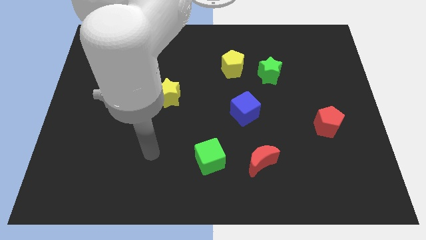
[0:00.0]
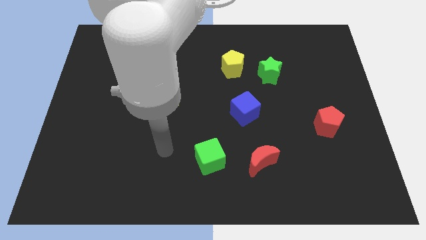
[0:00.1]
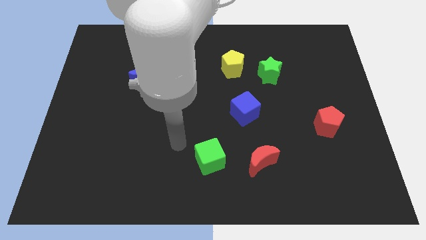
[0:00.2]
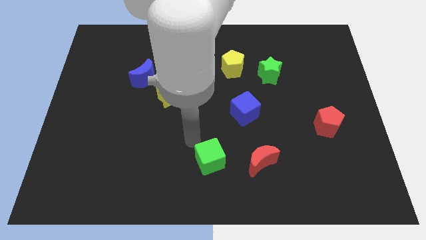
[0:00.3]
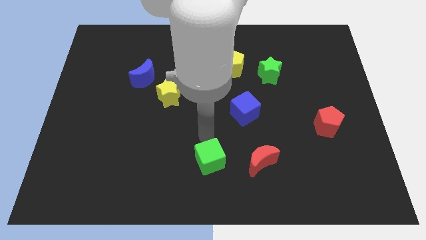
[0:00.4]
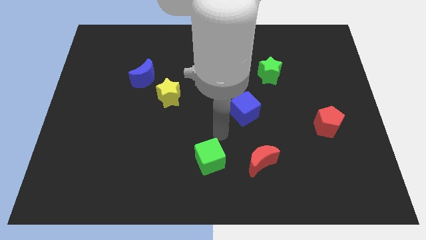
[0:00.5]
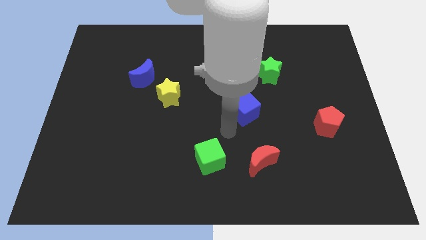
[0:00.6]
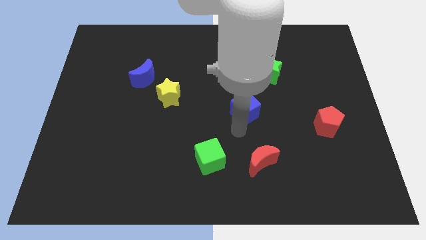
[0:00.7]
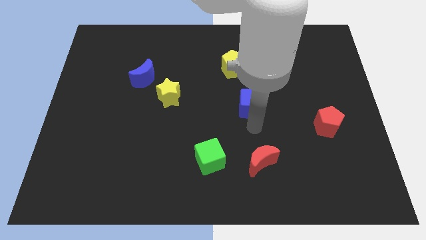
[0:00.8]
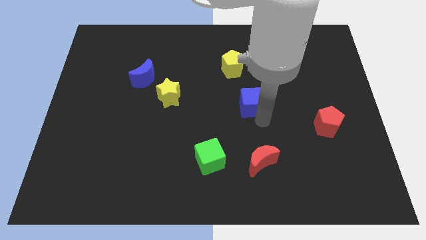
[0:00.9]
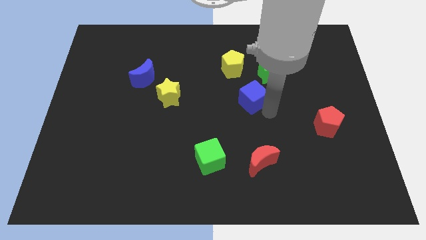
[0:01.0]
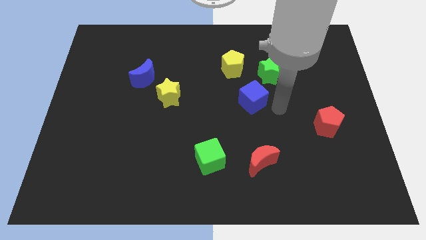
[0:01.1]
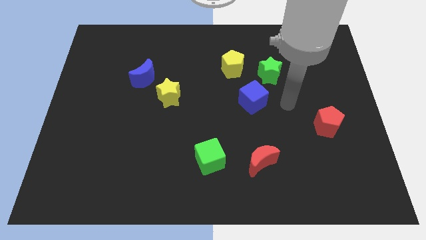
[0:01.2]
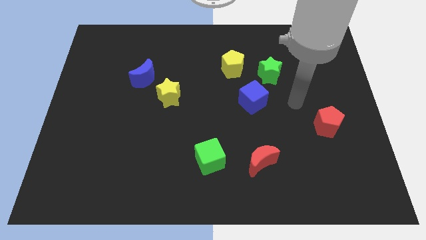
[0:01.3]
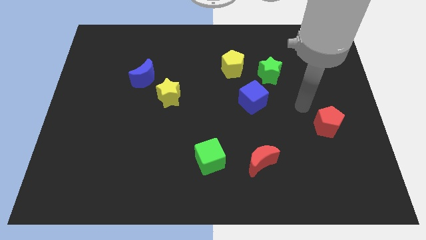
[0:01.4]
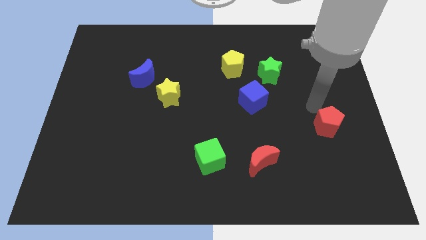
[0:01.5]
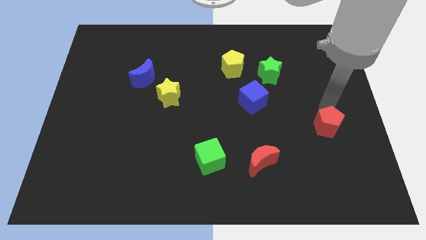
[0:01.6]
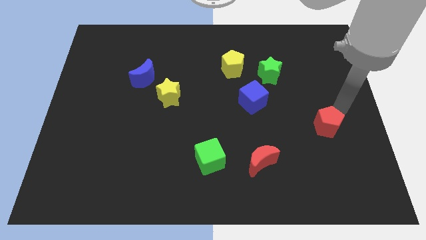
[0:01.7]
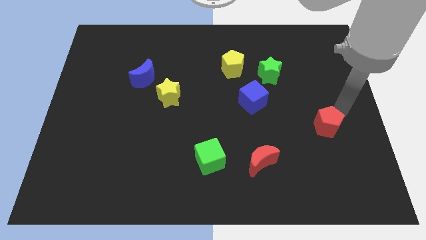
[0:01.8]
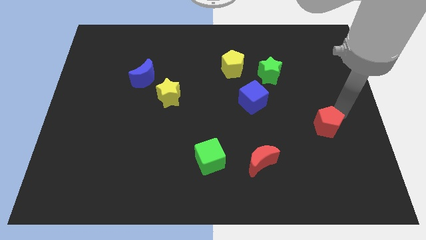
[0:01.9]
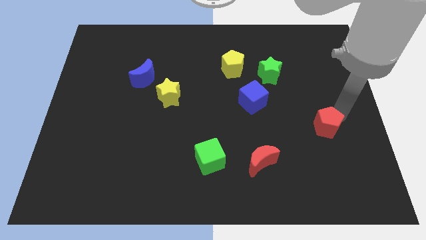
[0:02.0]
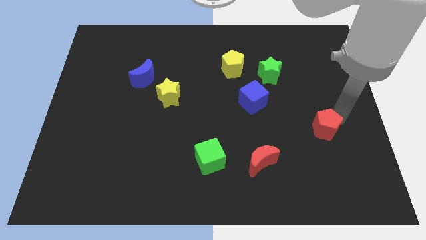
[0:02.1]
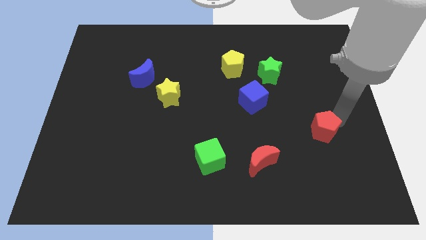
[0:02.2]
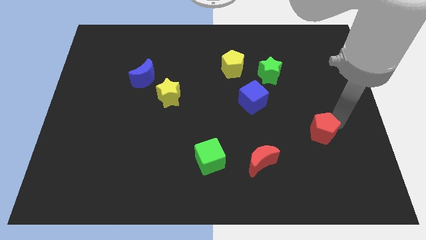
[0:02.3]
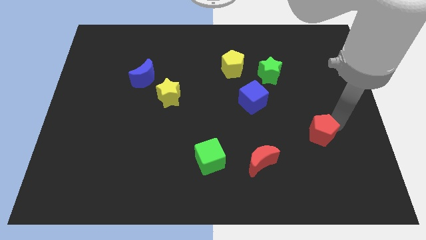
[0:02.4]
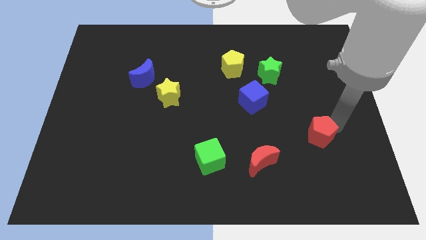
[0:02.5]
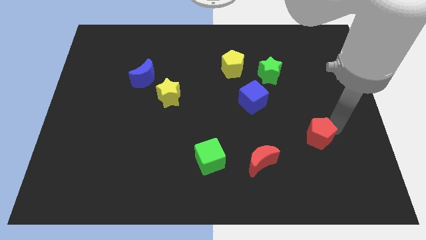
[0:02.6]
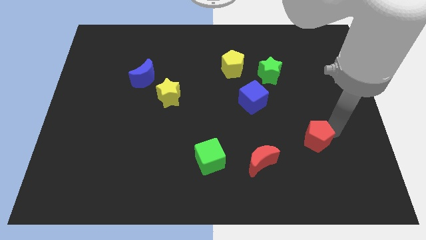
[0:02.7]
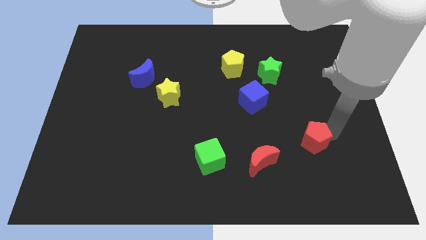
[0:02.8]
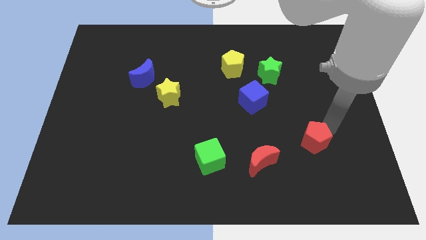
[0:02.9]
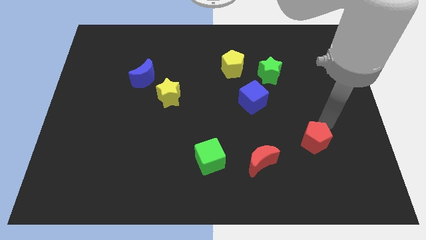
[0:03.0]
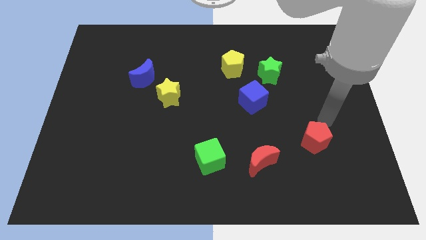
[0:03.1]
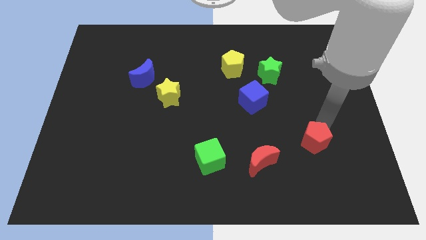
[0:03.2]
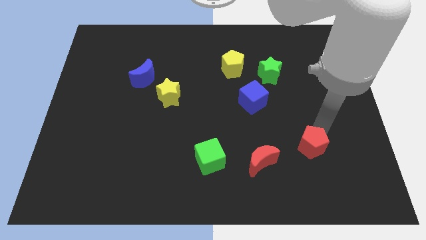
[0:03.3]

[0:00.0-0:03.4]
push the red pentagon somewhat down and then to the left

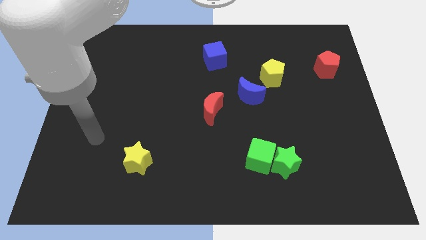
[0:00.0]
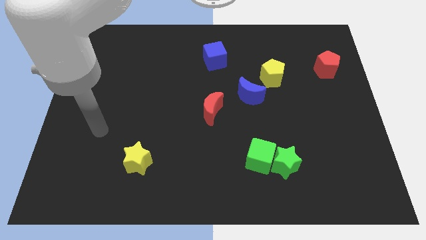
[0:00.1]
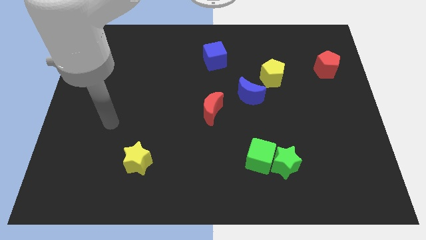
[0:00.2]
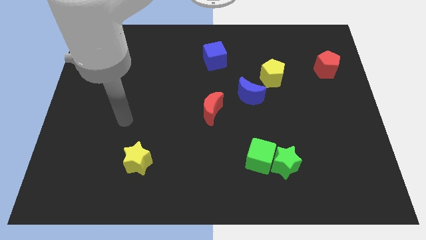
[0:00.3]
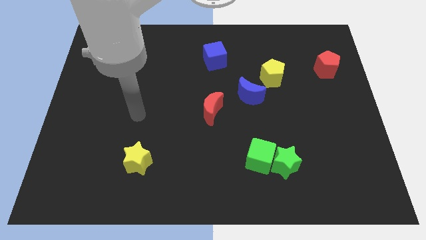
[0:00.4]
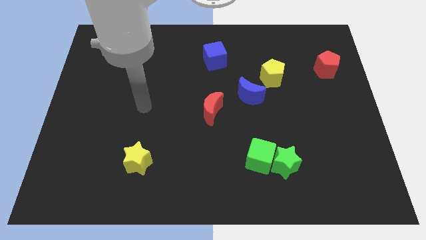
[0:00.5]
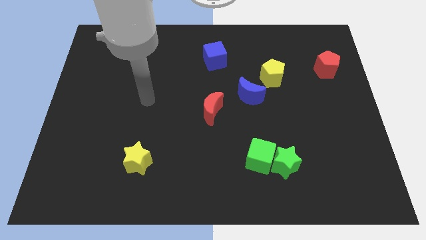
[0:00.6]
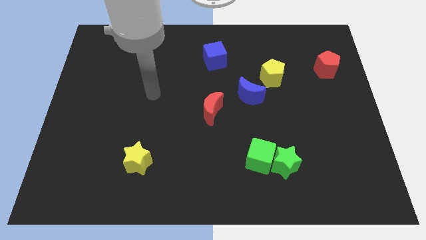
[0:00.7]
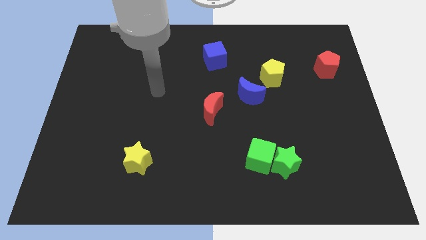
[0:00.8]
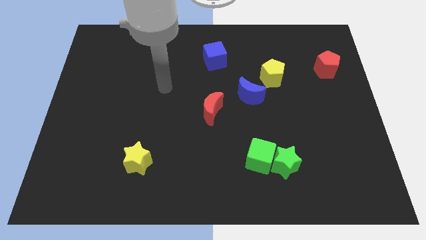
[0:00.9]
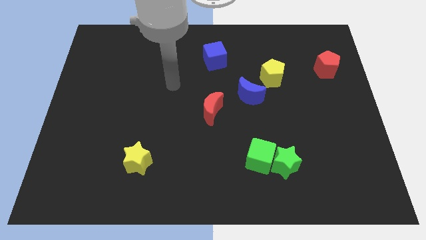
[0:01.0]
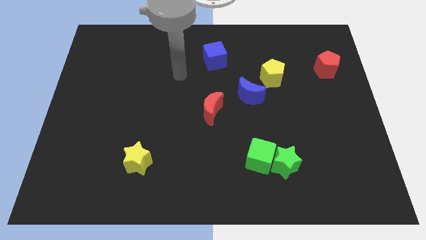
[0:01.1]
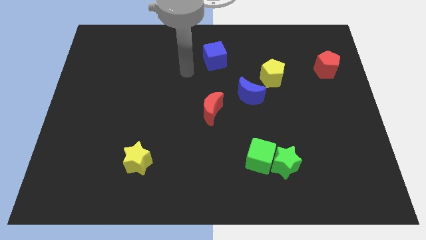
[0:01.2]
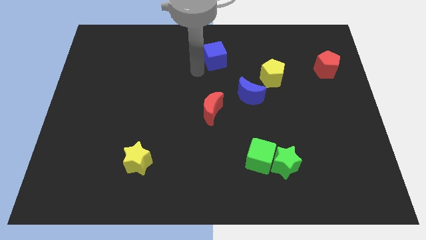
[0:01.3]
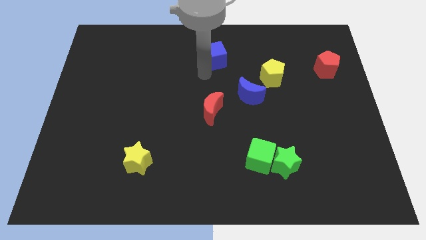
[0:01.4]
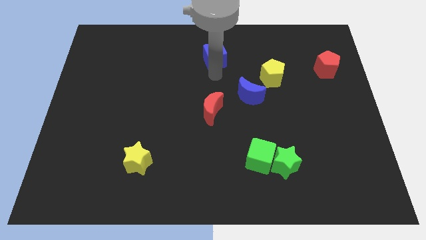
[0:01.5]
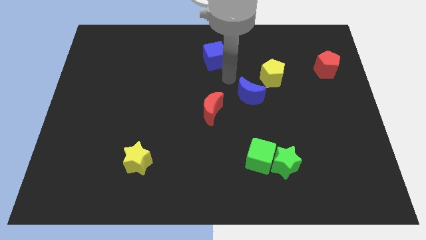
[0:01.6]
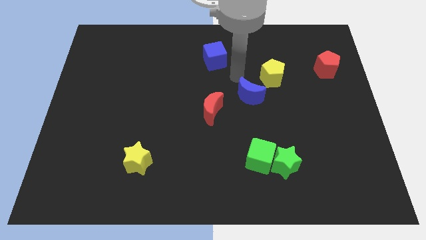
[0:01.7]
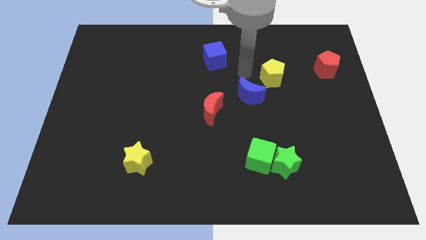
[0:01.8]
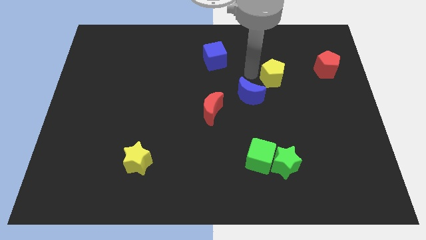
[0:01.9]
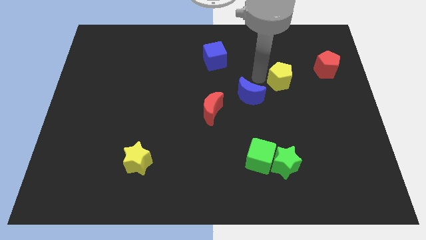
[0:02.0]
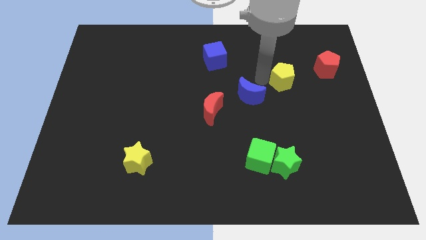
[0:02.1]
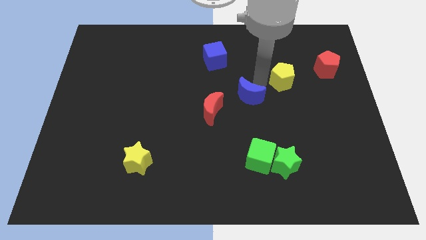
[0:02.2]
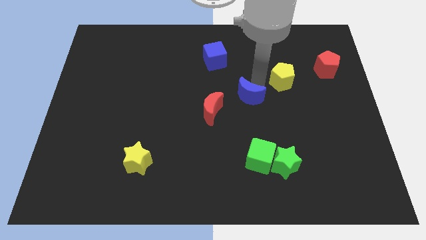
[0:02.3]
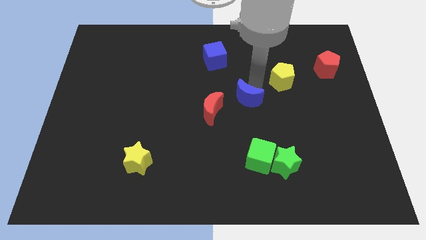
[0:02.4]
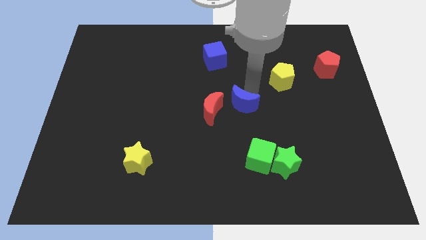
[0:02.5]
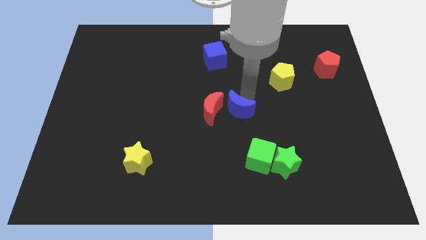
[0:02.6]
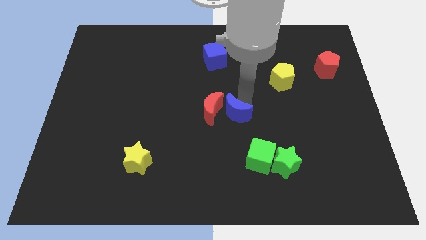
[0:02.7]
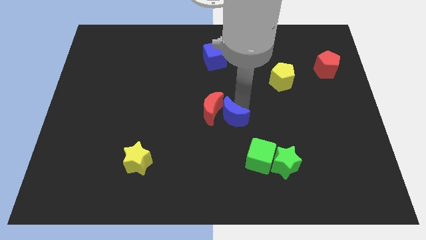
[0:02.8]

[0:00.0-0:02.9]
slide the blue moon slightly downwards and to the left

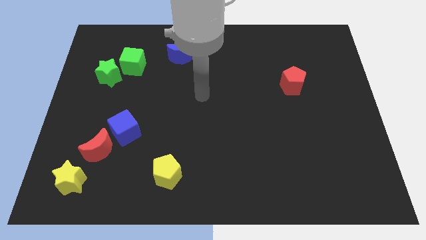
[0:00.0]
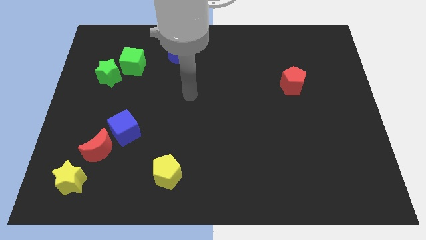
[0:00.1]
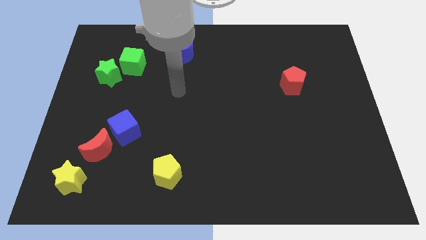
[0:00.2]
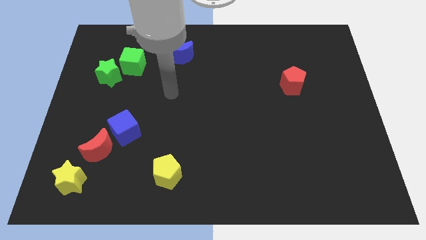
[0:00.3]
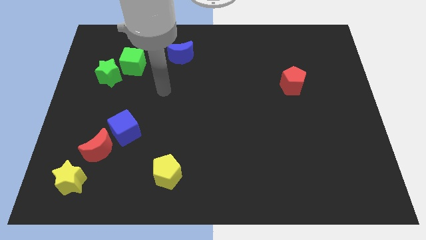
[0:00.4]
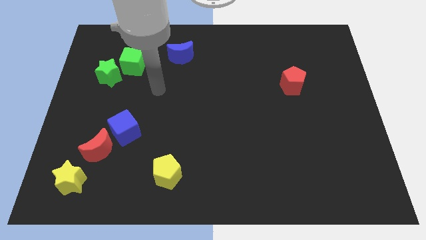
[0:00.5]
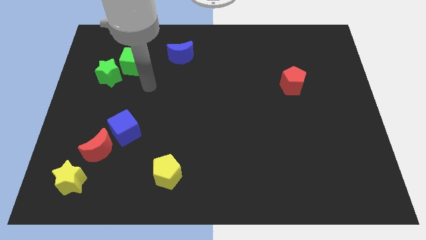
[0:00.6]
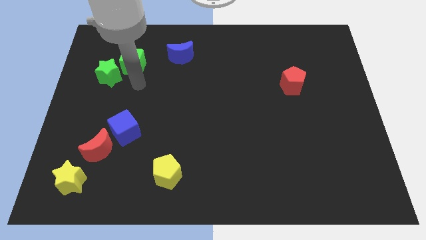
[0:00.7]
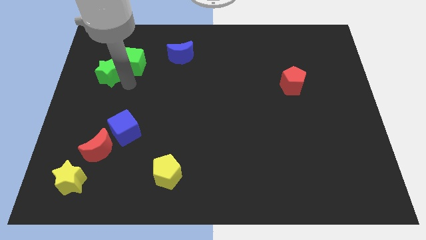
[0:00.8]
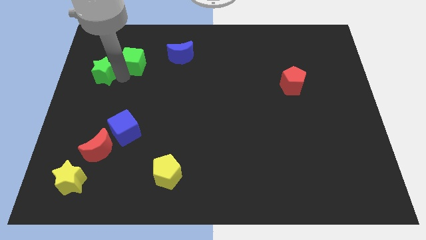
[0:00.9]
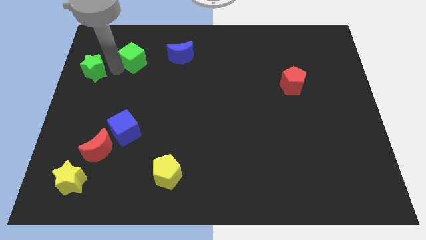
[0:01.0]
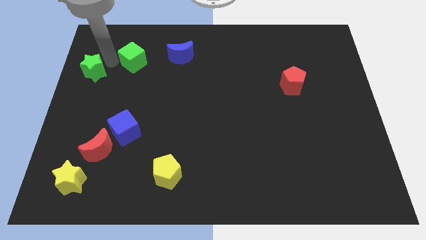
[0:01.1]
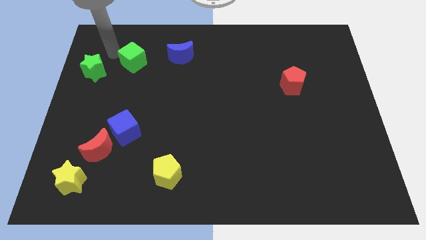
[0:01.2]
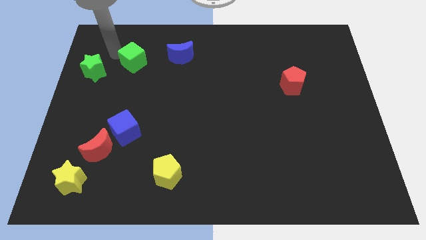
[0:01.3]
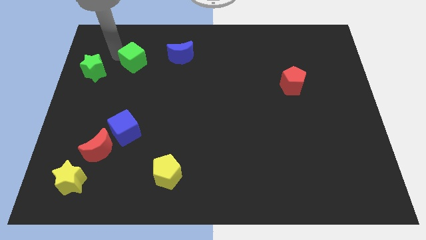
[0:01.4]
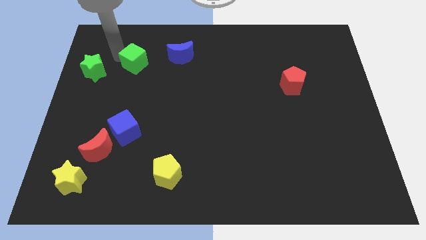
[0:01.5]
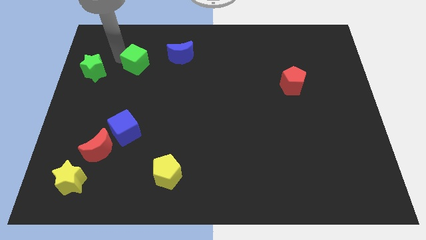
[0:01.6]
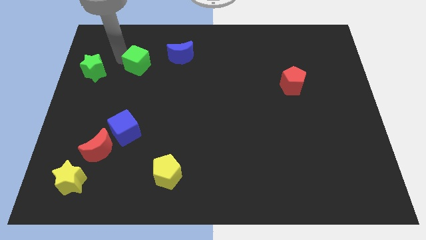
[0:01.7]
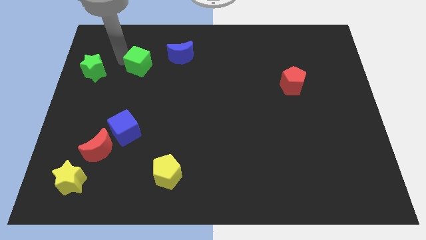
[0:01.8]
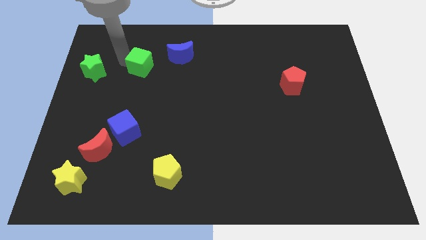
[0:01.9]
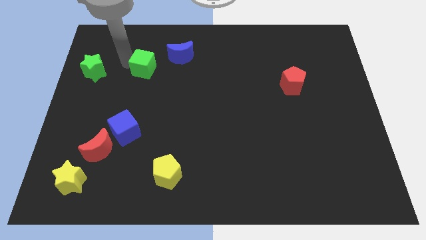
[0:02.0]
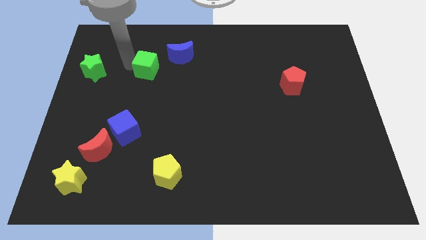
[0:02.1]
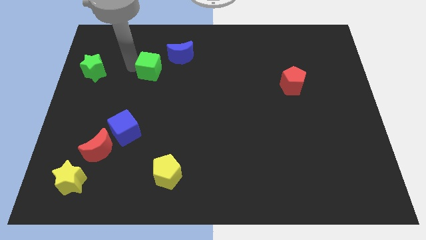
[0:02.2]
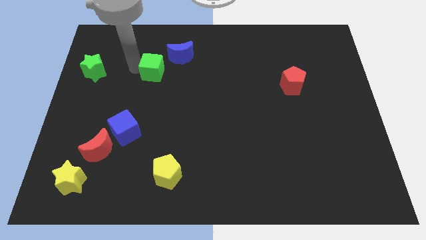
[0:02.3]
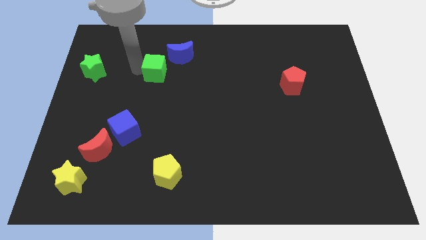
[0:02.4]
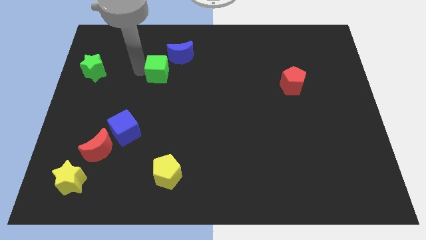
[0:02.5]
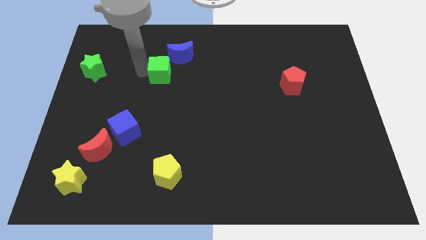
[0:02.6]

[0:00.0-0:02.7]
move the green cube a little right
